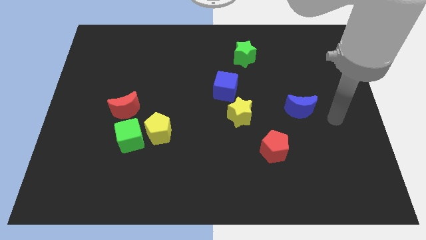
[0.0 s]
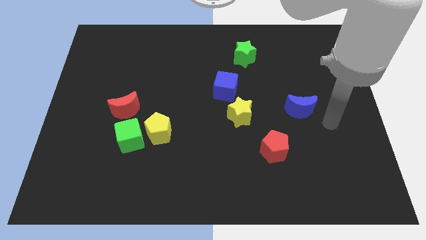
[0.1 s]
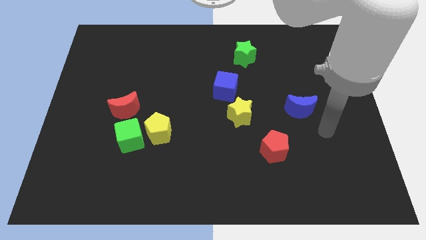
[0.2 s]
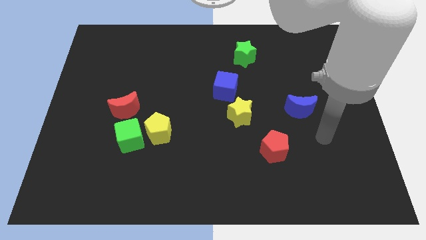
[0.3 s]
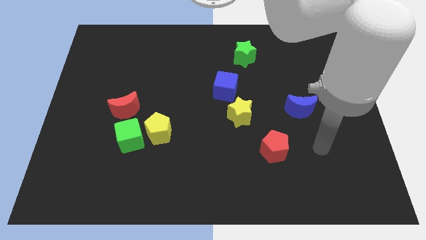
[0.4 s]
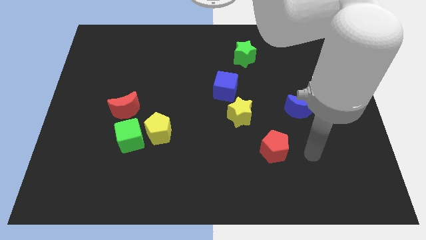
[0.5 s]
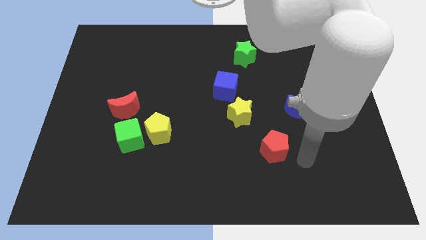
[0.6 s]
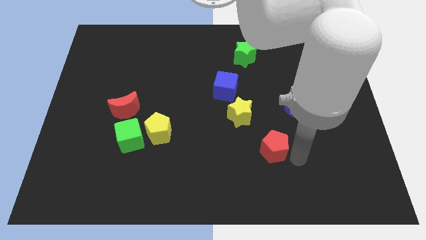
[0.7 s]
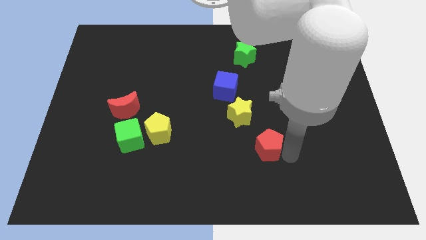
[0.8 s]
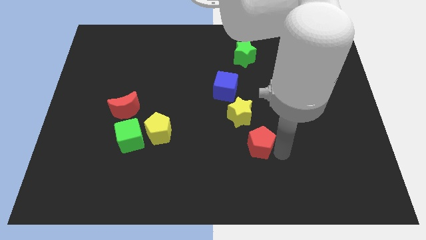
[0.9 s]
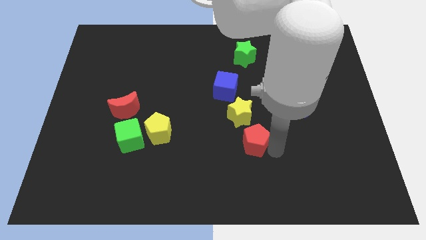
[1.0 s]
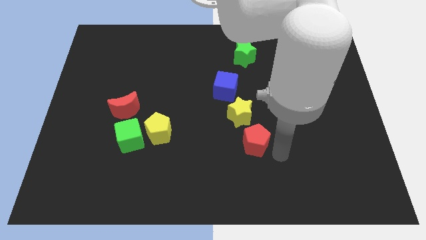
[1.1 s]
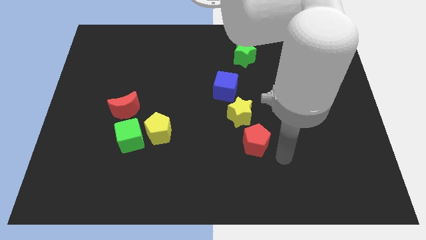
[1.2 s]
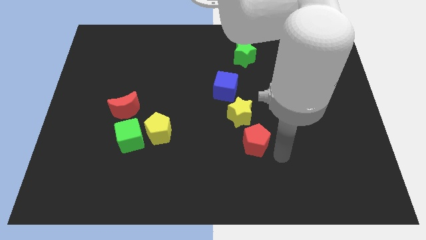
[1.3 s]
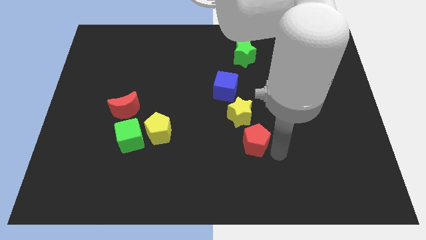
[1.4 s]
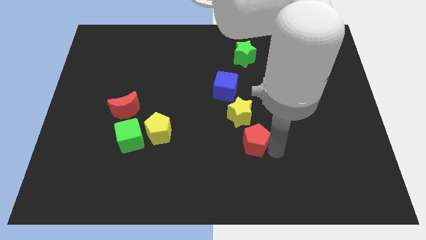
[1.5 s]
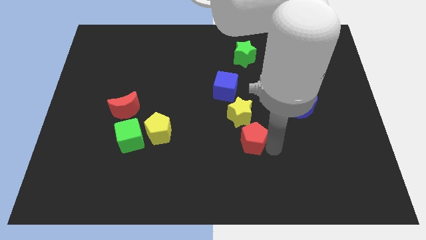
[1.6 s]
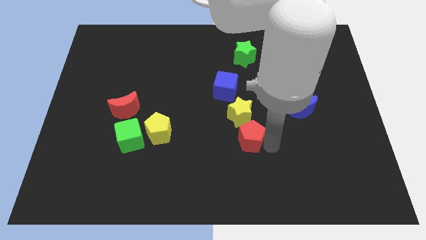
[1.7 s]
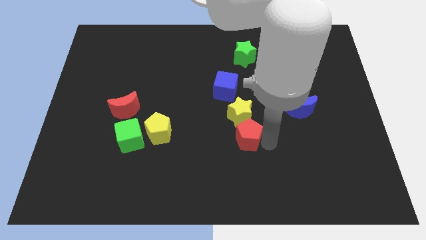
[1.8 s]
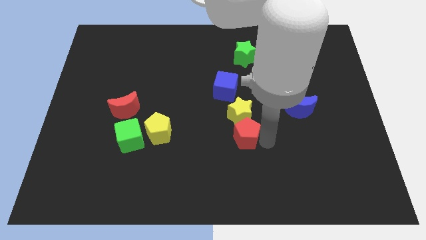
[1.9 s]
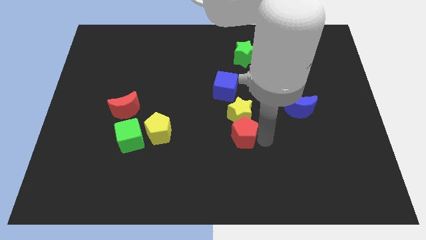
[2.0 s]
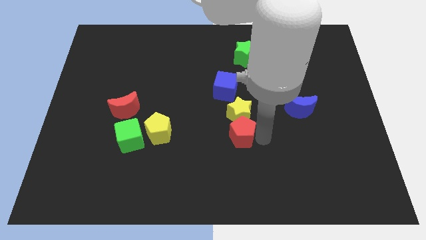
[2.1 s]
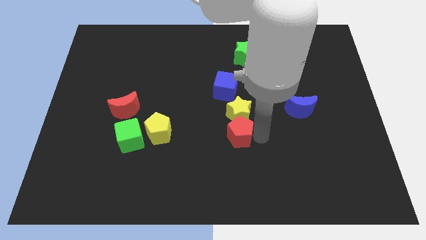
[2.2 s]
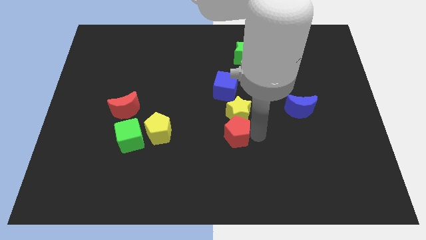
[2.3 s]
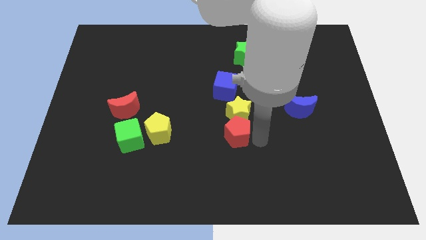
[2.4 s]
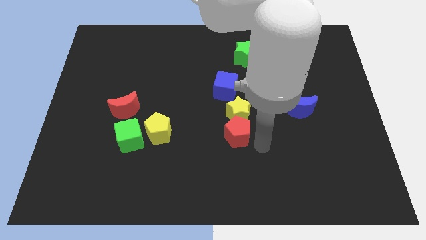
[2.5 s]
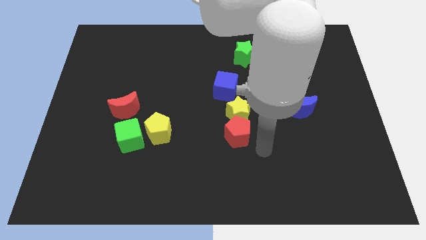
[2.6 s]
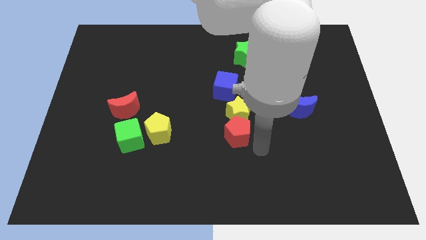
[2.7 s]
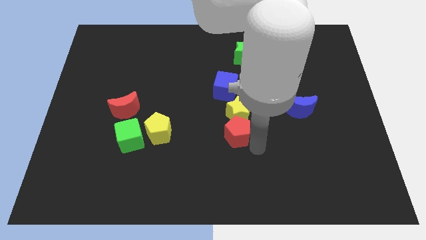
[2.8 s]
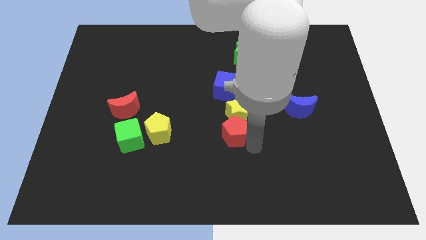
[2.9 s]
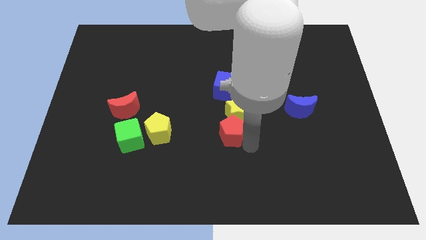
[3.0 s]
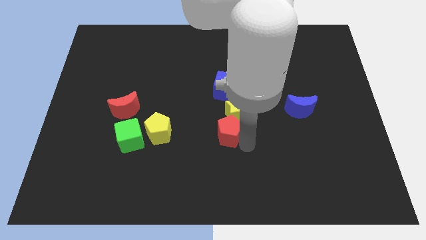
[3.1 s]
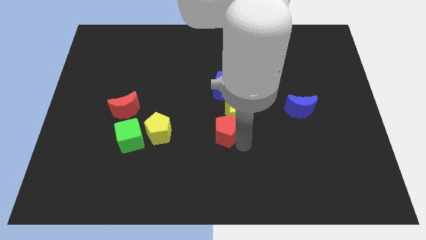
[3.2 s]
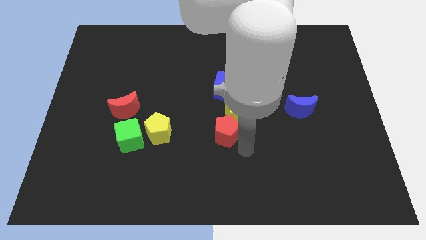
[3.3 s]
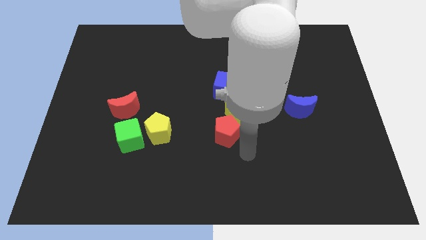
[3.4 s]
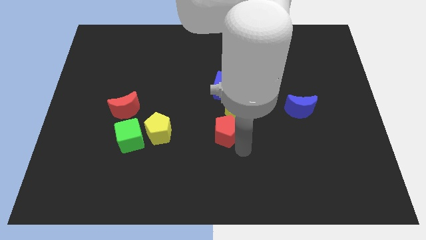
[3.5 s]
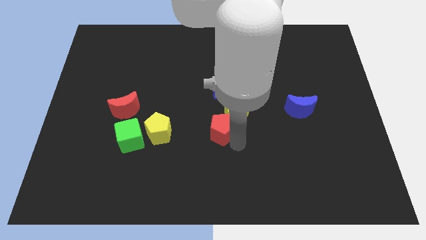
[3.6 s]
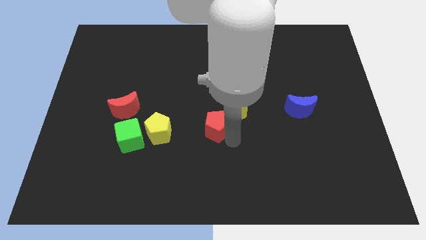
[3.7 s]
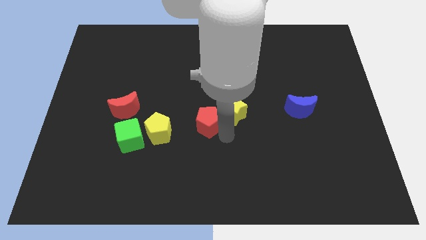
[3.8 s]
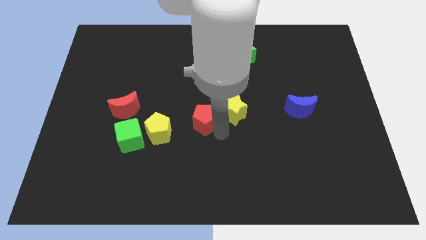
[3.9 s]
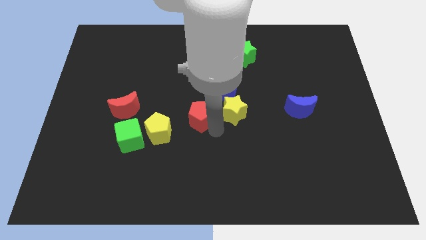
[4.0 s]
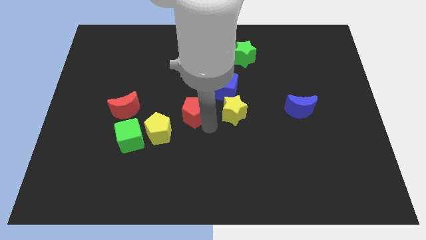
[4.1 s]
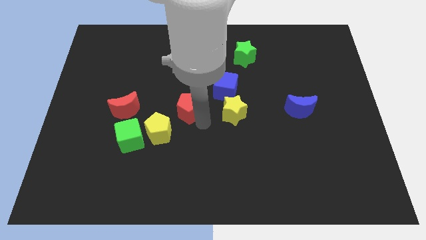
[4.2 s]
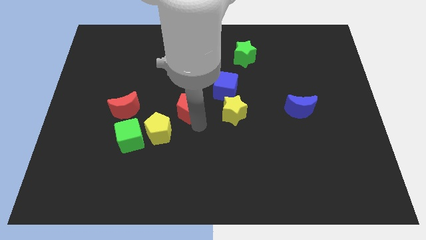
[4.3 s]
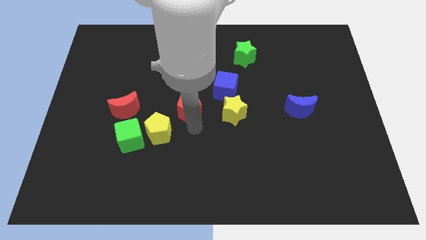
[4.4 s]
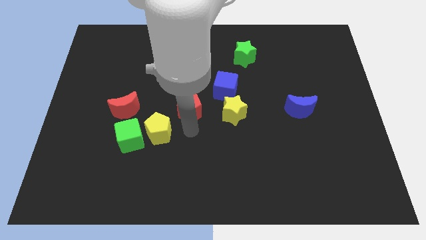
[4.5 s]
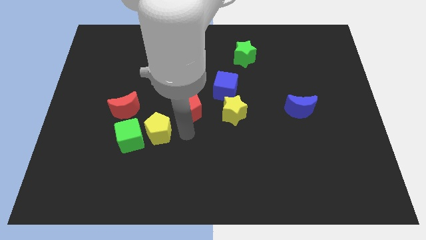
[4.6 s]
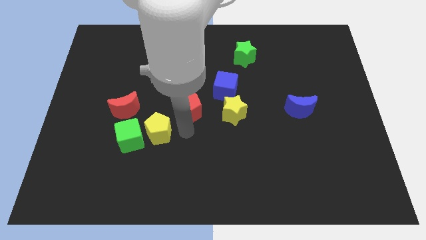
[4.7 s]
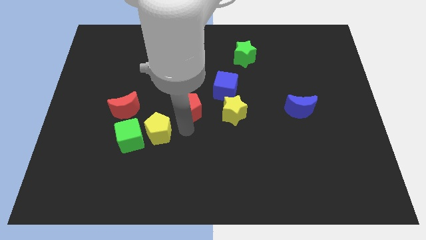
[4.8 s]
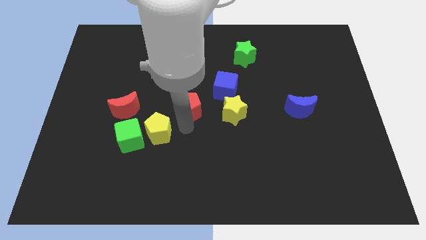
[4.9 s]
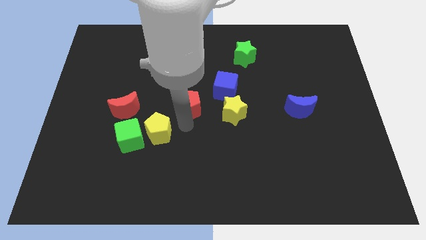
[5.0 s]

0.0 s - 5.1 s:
move the red pentagon up and to the left diagonally

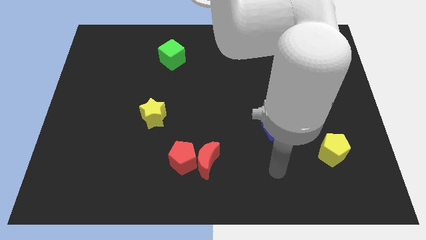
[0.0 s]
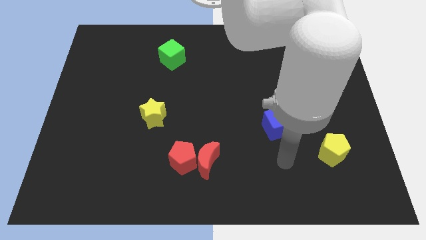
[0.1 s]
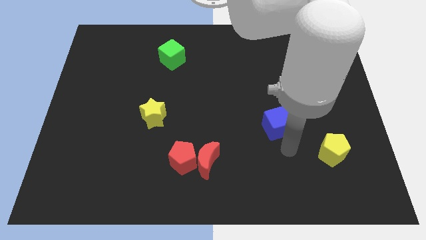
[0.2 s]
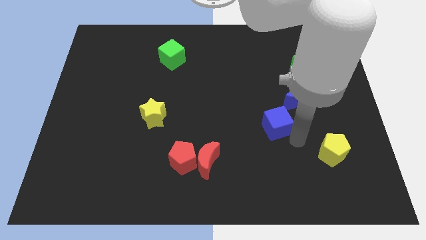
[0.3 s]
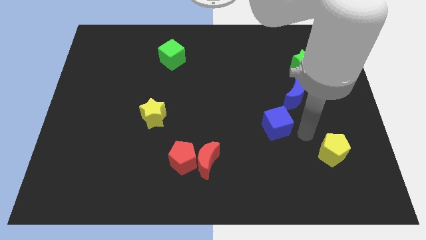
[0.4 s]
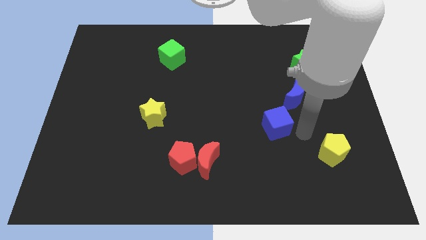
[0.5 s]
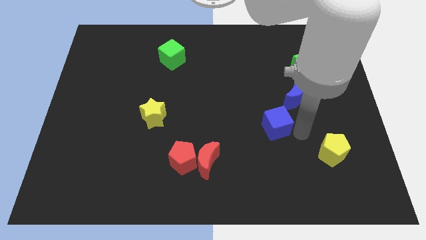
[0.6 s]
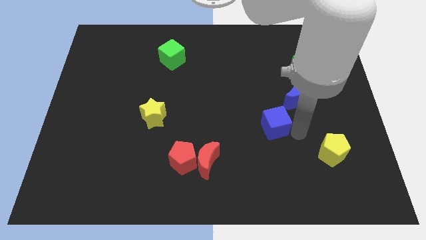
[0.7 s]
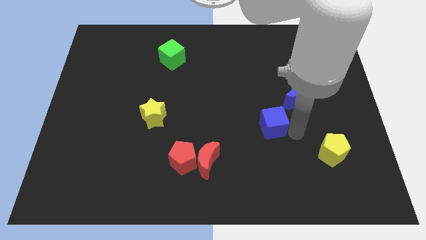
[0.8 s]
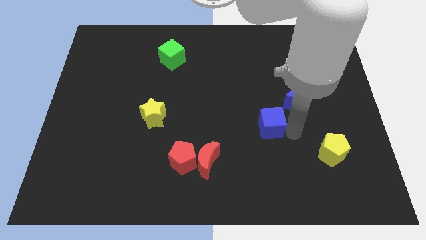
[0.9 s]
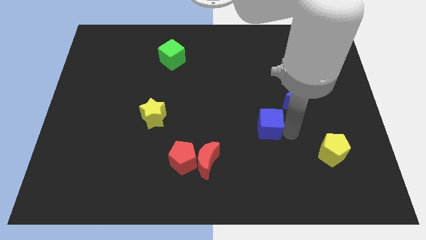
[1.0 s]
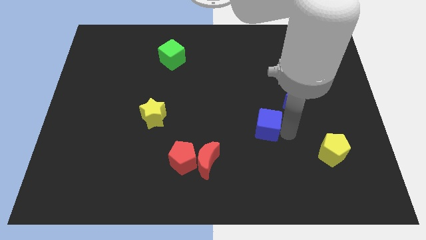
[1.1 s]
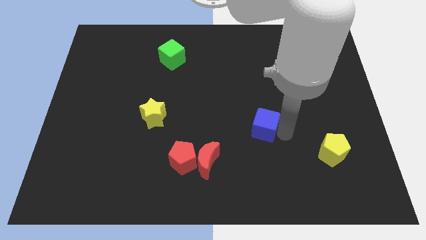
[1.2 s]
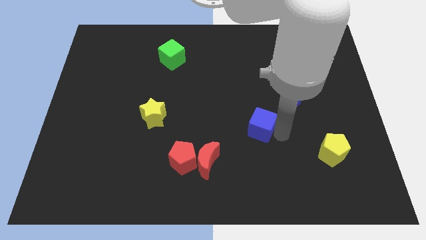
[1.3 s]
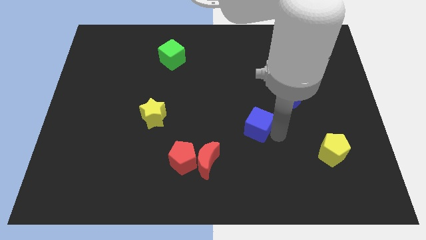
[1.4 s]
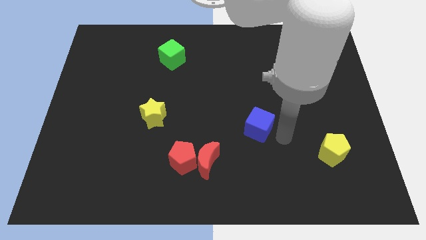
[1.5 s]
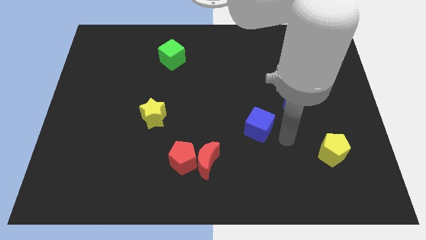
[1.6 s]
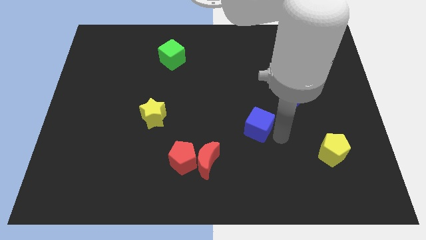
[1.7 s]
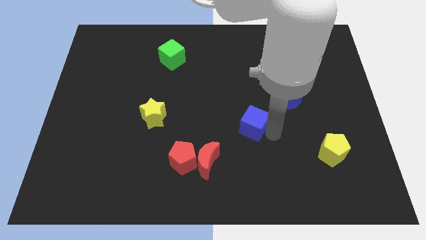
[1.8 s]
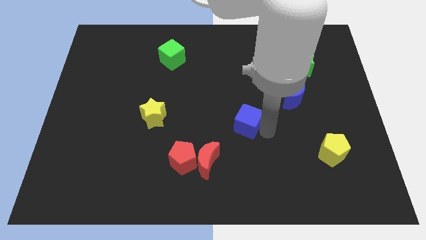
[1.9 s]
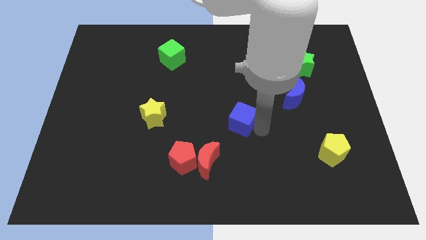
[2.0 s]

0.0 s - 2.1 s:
slightly push the blue cube to the left

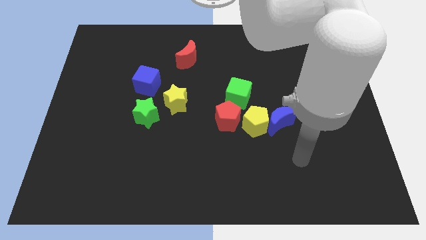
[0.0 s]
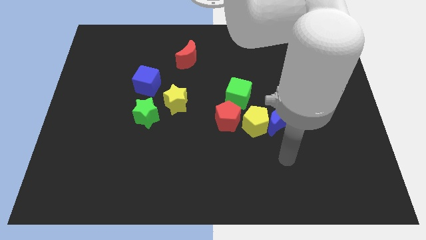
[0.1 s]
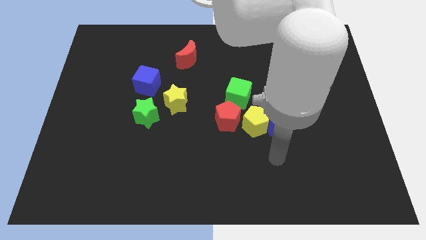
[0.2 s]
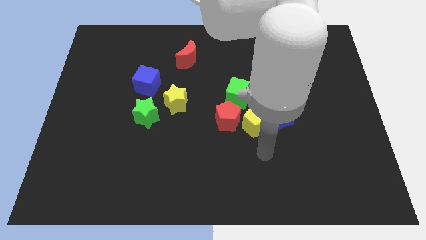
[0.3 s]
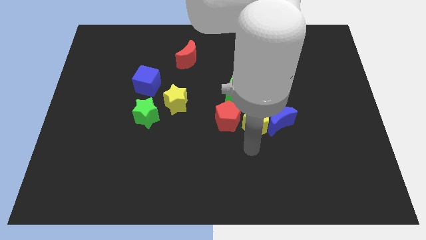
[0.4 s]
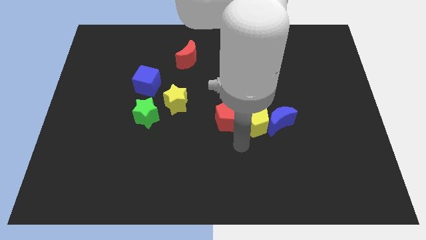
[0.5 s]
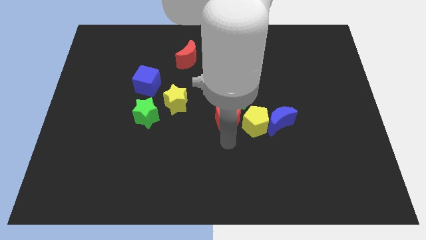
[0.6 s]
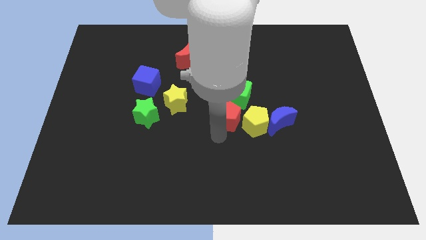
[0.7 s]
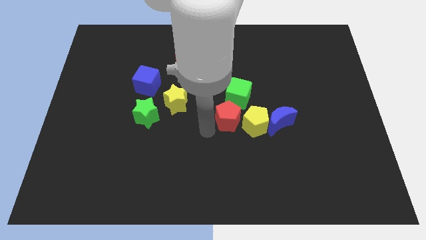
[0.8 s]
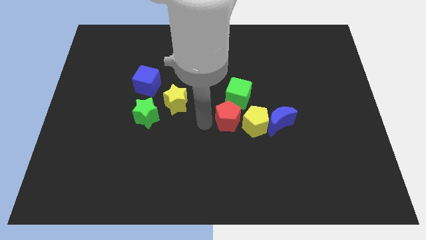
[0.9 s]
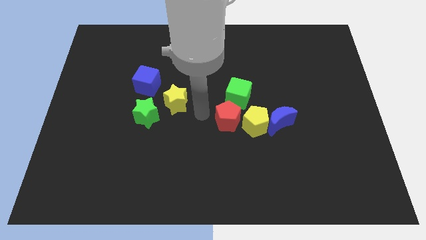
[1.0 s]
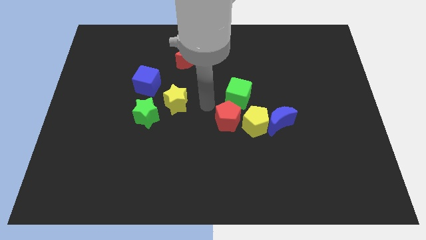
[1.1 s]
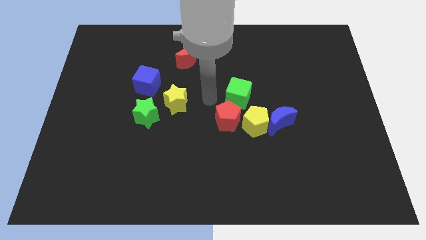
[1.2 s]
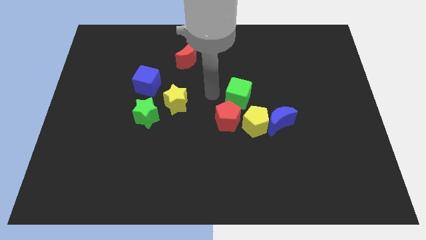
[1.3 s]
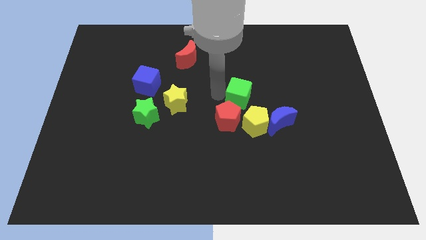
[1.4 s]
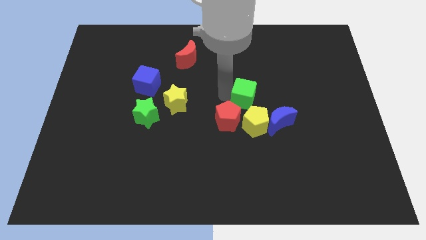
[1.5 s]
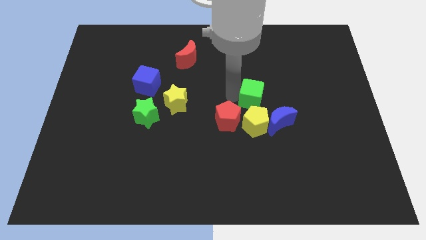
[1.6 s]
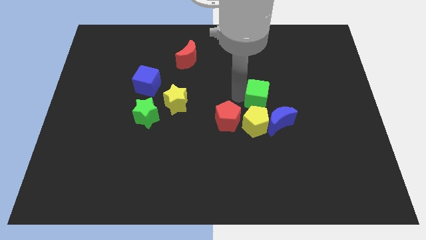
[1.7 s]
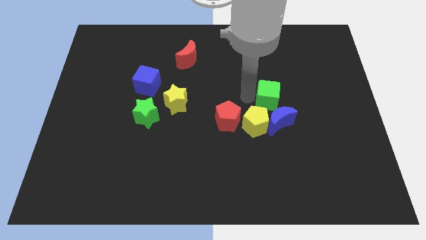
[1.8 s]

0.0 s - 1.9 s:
slide the green cube right a bit
